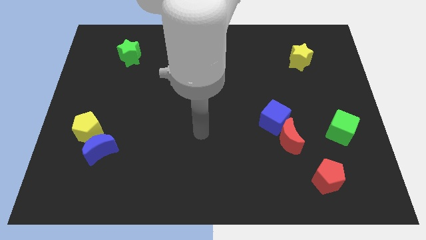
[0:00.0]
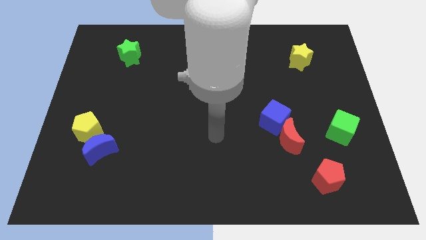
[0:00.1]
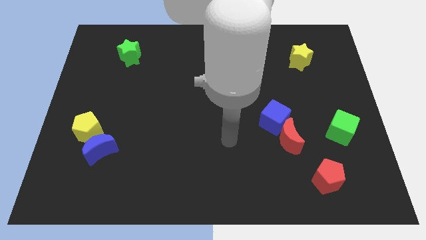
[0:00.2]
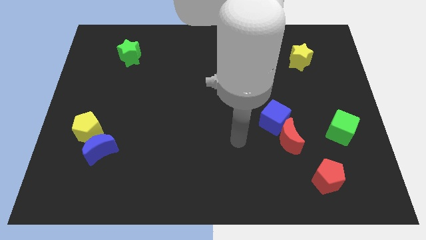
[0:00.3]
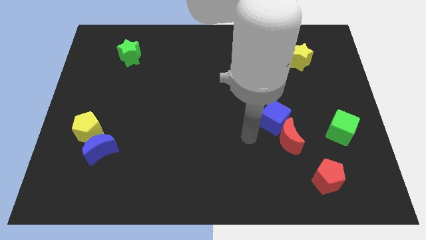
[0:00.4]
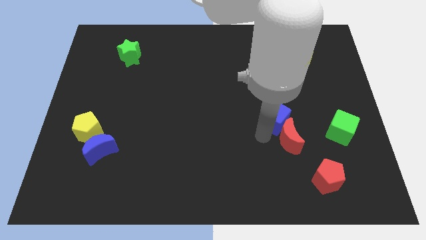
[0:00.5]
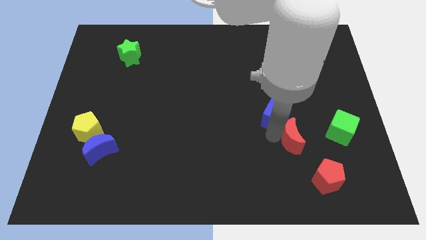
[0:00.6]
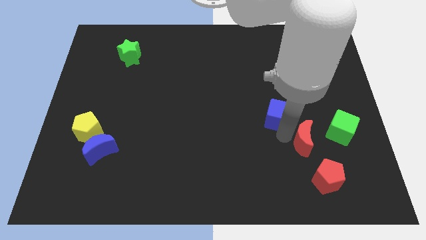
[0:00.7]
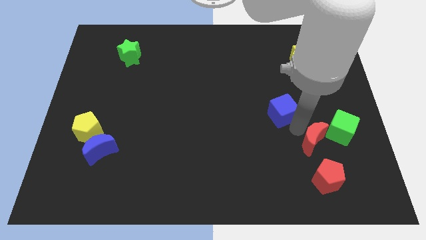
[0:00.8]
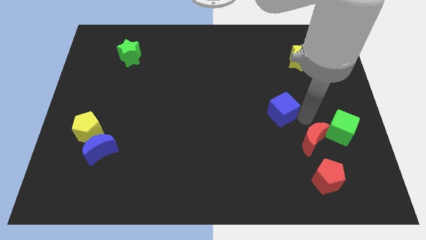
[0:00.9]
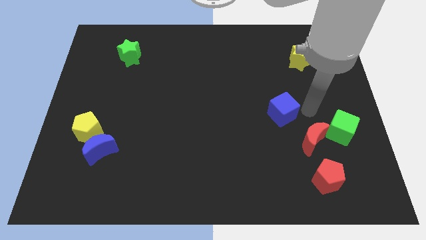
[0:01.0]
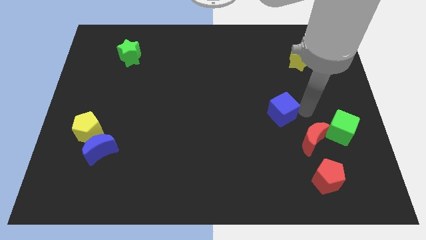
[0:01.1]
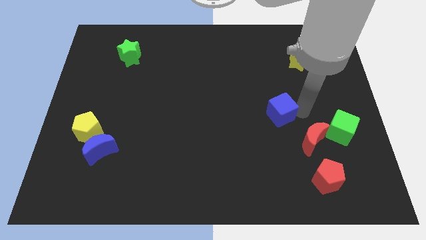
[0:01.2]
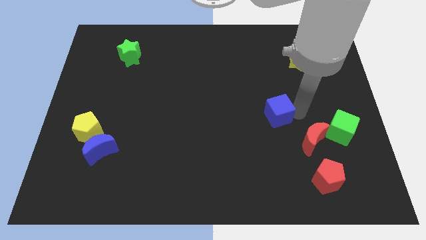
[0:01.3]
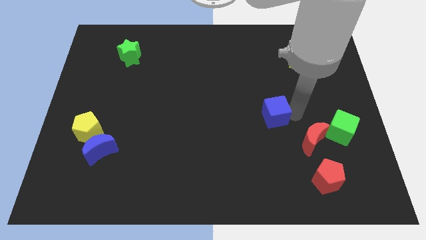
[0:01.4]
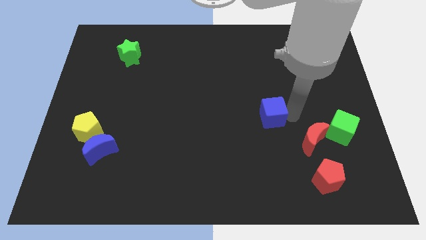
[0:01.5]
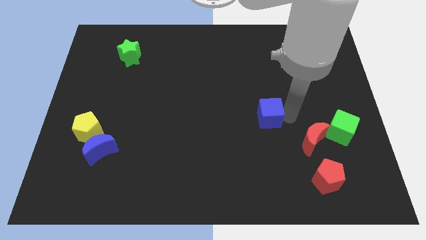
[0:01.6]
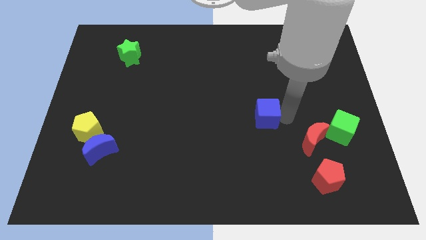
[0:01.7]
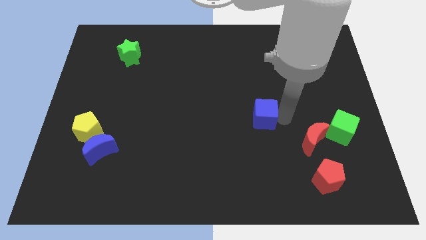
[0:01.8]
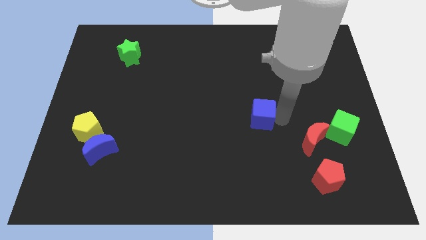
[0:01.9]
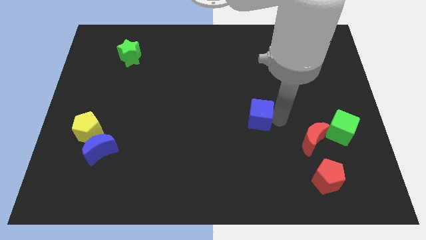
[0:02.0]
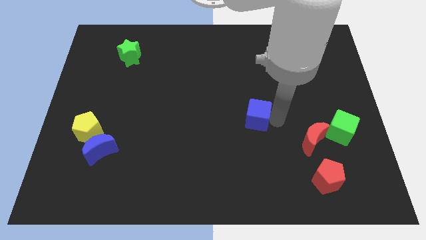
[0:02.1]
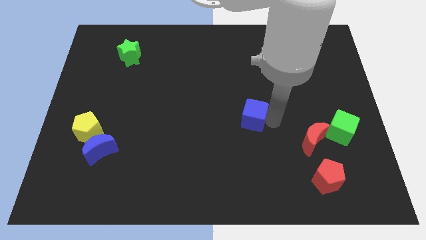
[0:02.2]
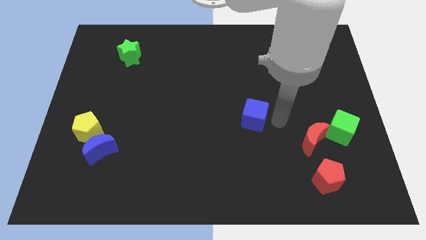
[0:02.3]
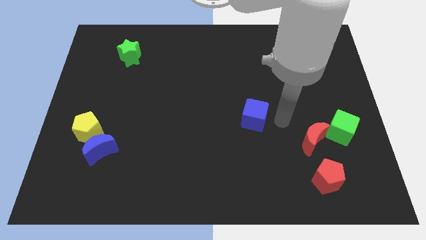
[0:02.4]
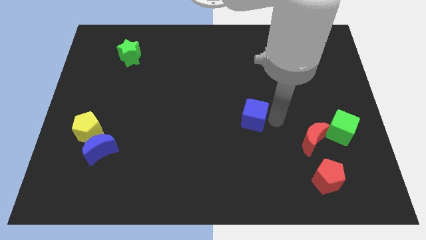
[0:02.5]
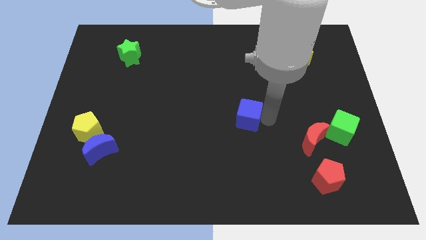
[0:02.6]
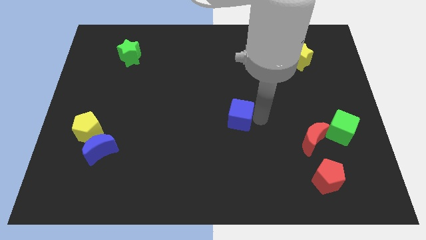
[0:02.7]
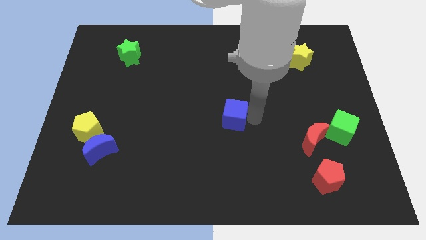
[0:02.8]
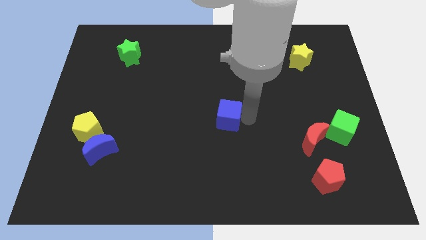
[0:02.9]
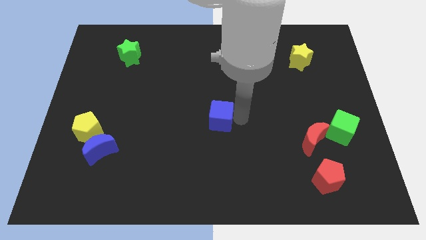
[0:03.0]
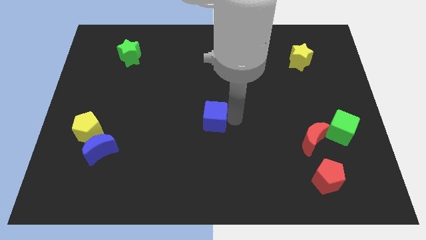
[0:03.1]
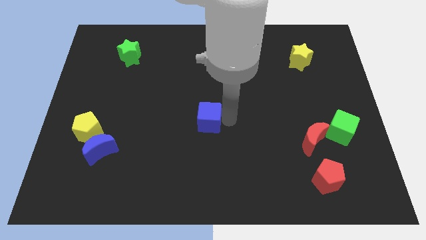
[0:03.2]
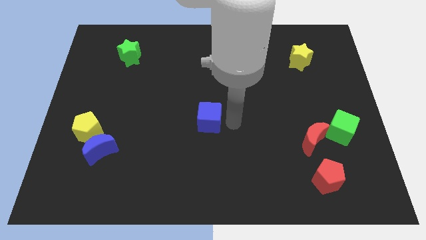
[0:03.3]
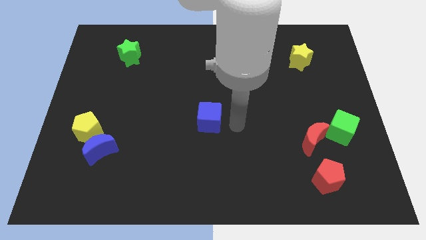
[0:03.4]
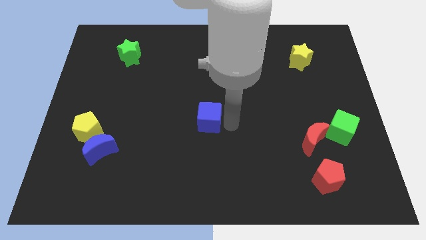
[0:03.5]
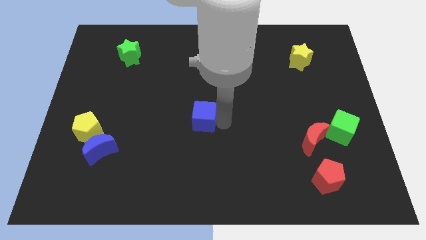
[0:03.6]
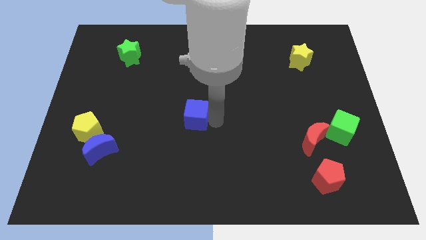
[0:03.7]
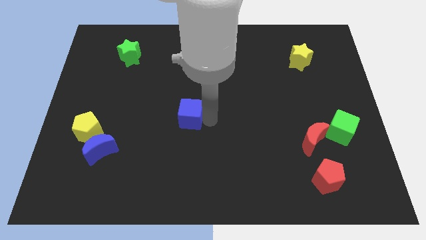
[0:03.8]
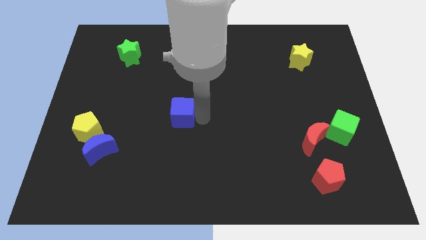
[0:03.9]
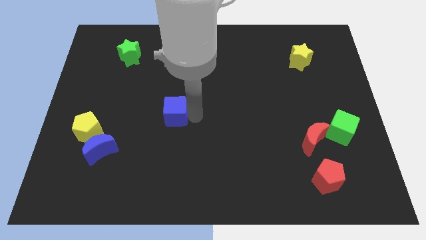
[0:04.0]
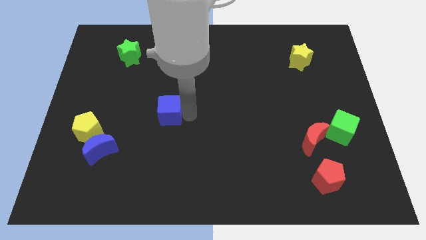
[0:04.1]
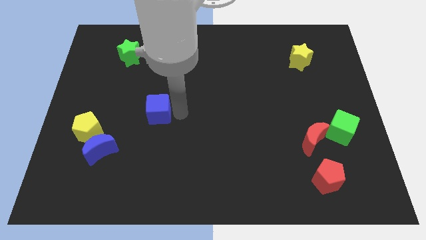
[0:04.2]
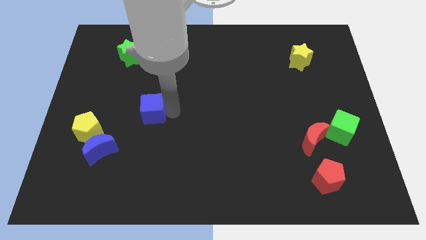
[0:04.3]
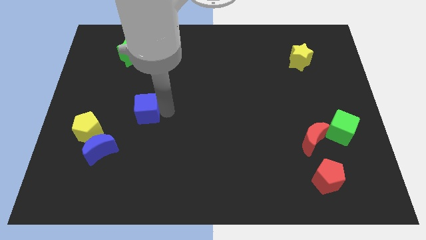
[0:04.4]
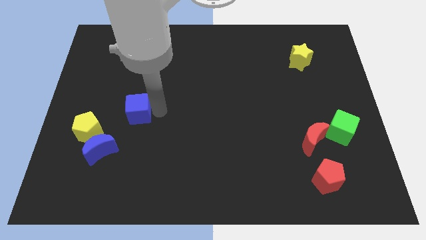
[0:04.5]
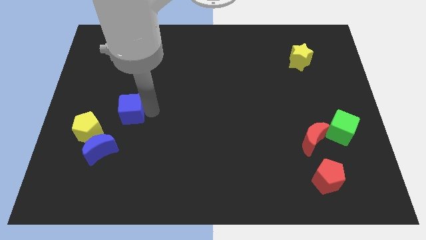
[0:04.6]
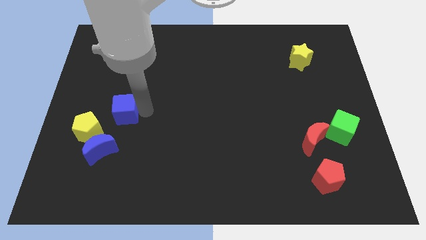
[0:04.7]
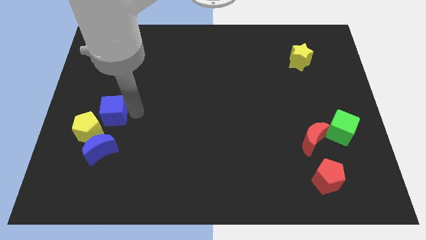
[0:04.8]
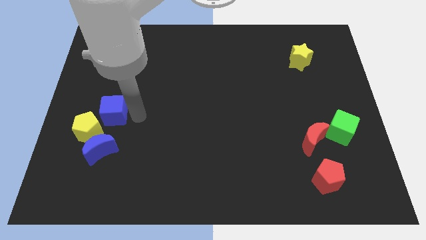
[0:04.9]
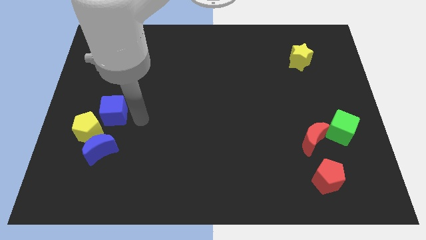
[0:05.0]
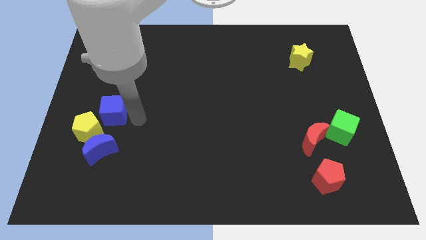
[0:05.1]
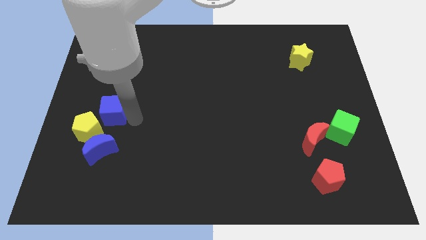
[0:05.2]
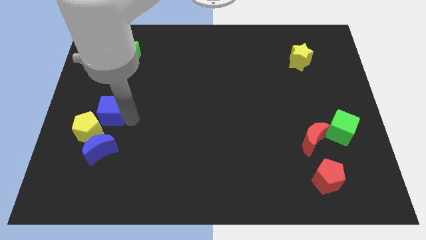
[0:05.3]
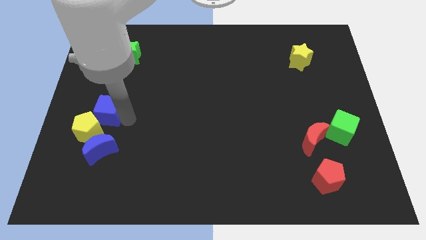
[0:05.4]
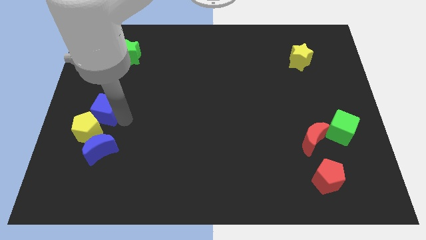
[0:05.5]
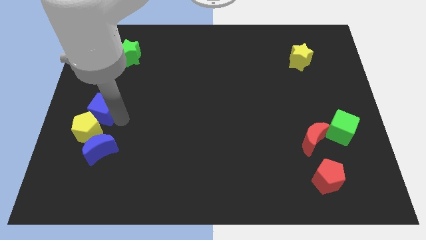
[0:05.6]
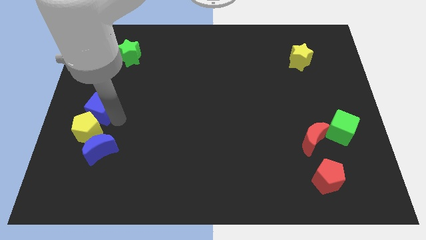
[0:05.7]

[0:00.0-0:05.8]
move the blue cube to the left side

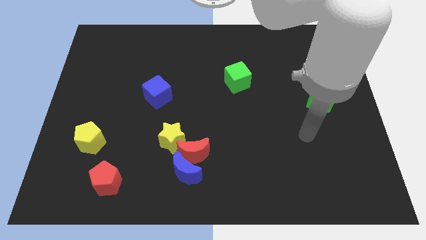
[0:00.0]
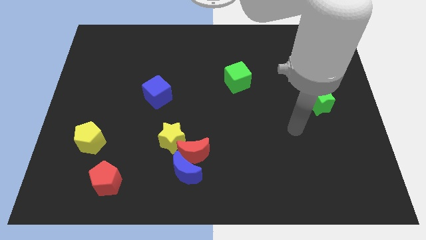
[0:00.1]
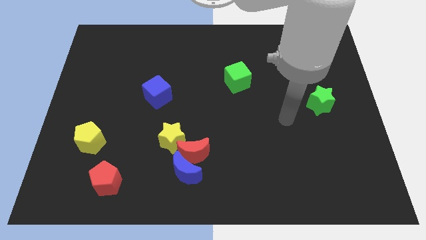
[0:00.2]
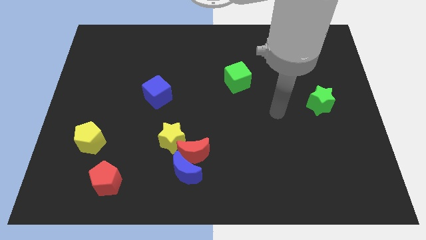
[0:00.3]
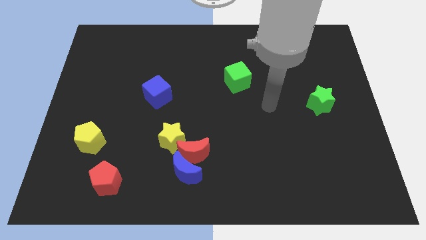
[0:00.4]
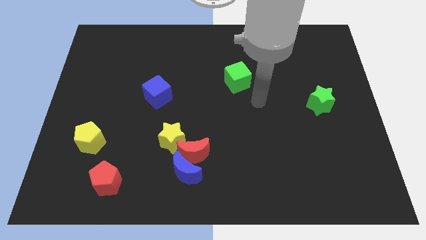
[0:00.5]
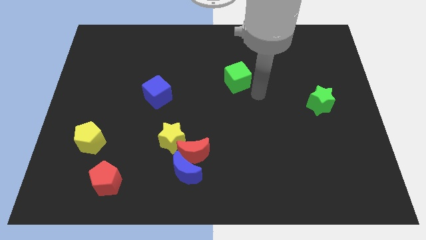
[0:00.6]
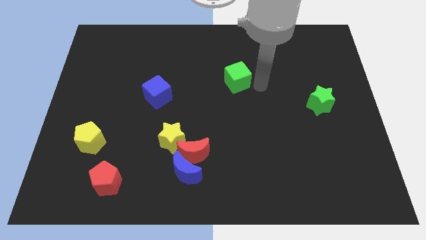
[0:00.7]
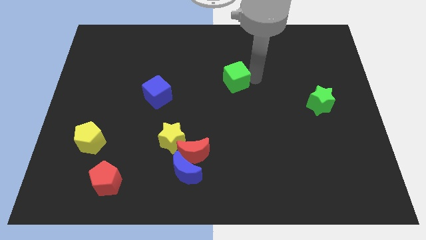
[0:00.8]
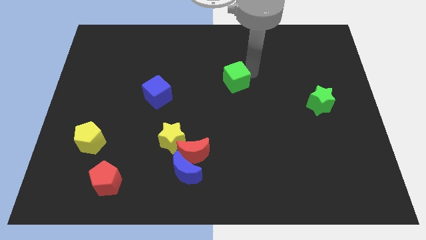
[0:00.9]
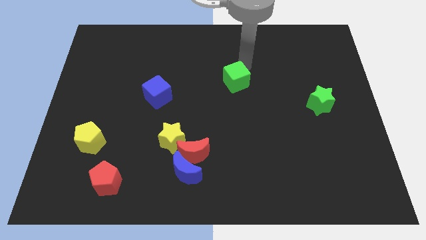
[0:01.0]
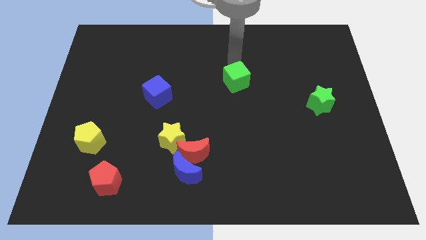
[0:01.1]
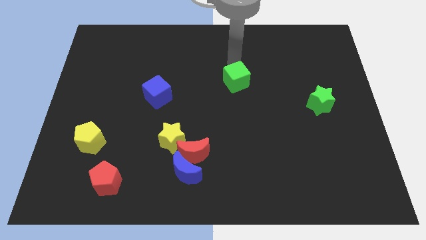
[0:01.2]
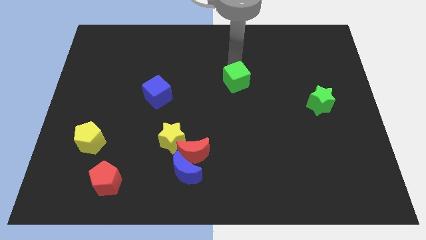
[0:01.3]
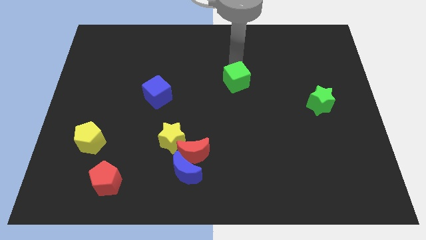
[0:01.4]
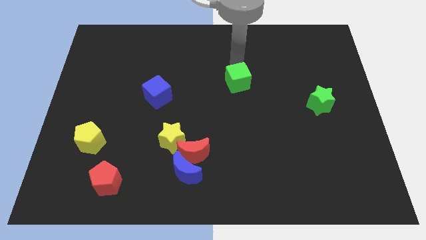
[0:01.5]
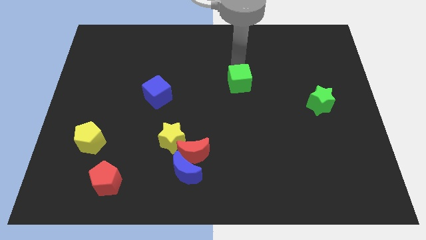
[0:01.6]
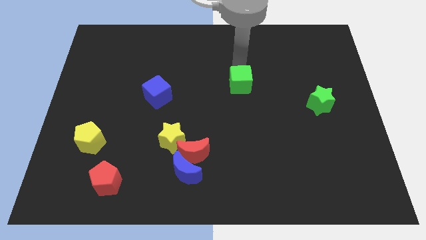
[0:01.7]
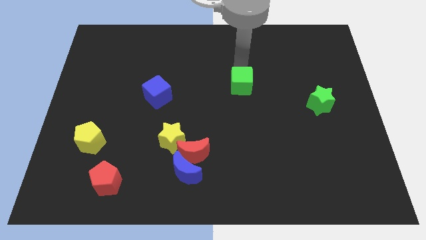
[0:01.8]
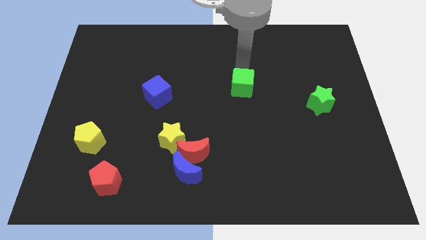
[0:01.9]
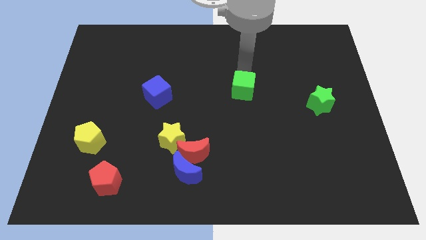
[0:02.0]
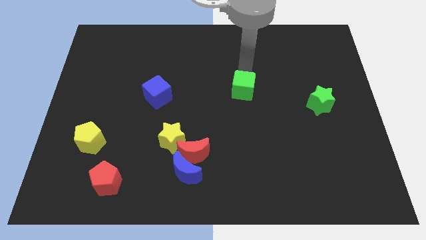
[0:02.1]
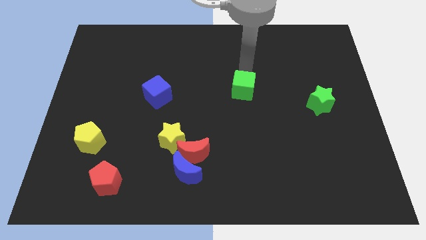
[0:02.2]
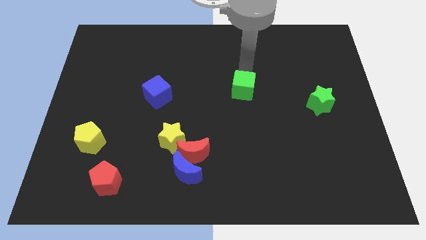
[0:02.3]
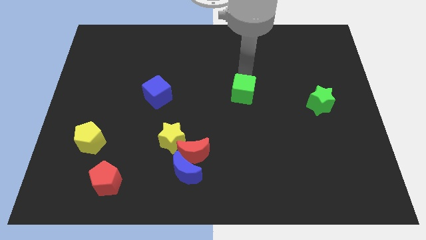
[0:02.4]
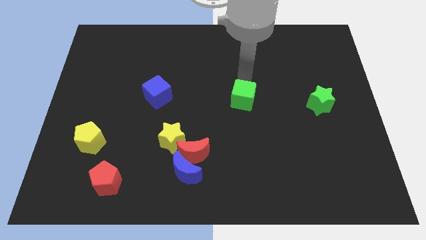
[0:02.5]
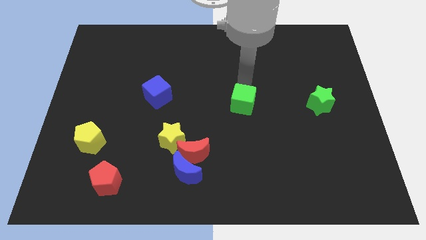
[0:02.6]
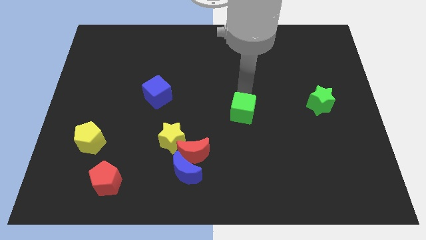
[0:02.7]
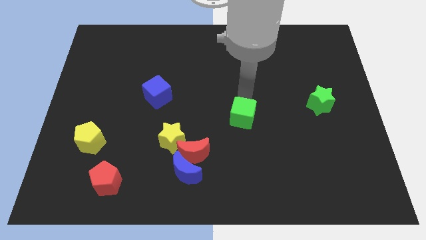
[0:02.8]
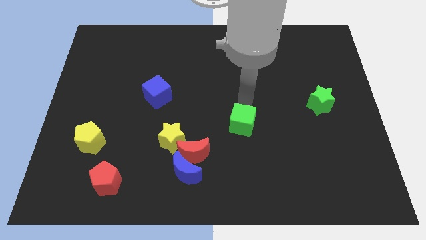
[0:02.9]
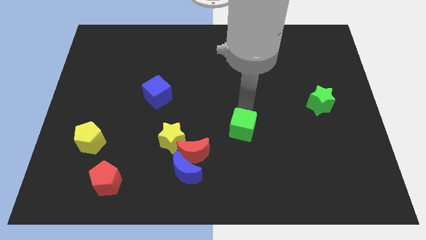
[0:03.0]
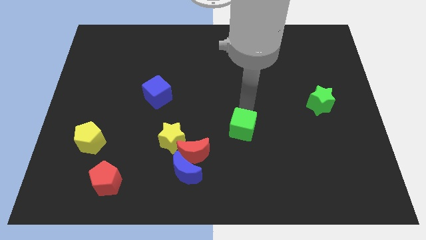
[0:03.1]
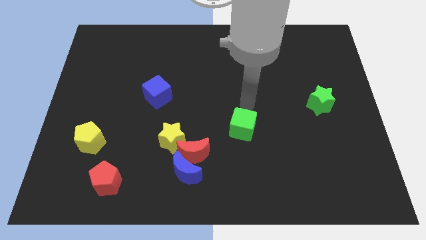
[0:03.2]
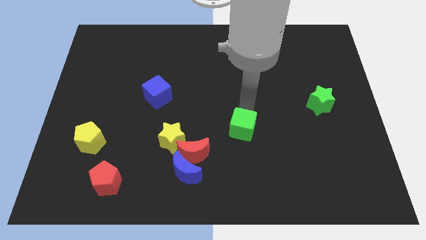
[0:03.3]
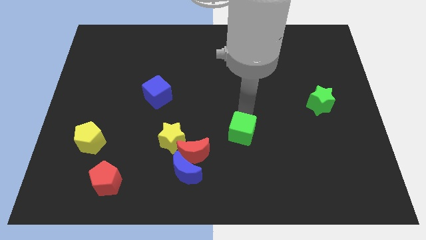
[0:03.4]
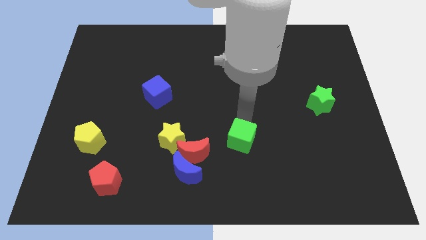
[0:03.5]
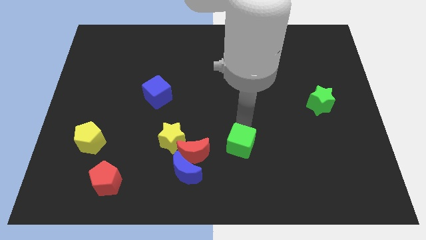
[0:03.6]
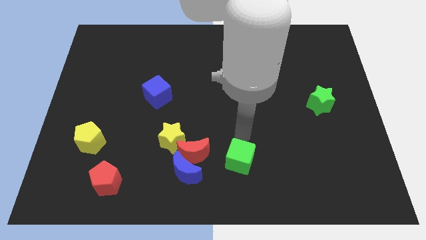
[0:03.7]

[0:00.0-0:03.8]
put the green cube to the bottom
